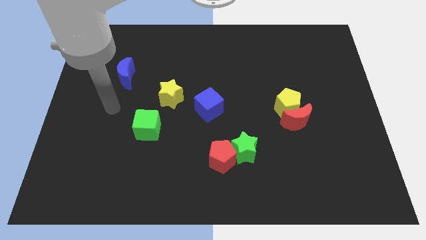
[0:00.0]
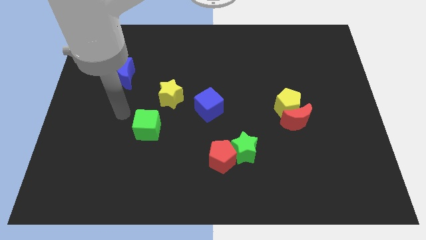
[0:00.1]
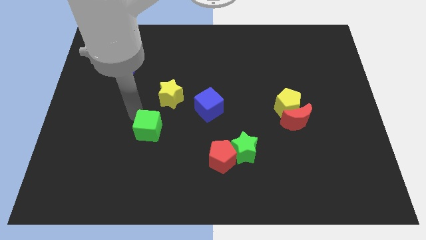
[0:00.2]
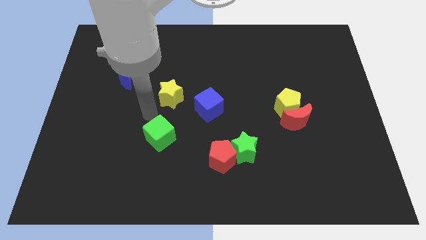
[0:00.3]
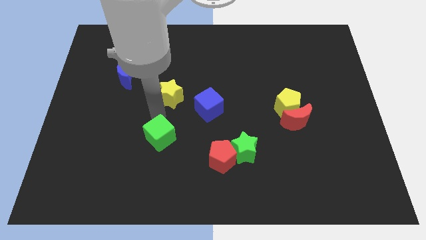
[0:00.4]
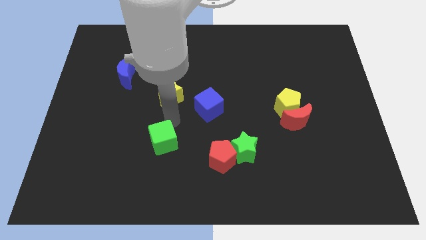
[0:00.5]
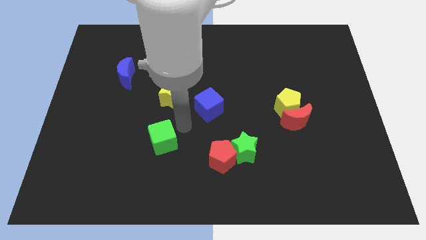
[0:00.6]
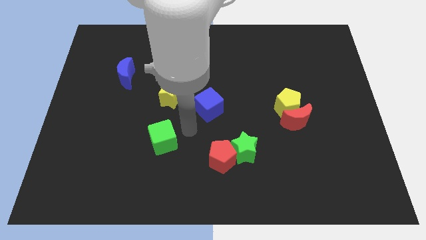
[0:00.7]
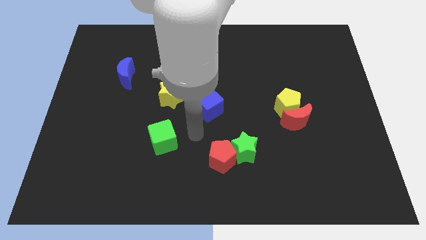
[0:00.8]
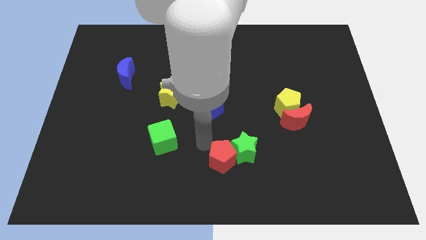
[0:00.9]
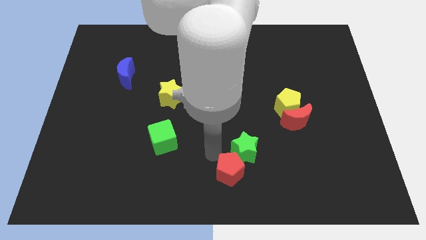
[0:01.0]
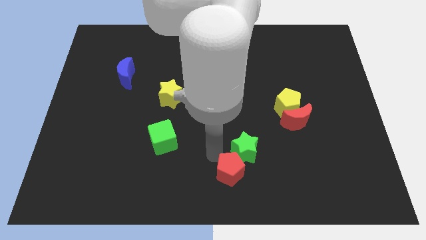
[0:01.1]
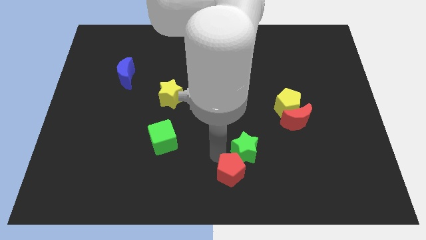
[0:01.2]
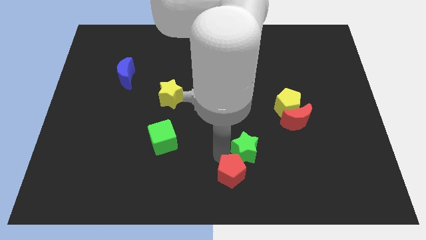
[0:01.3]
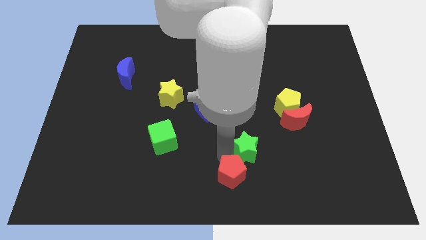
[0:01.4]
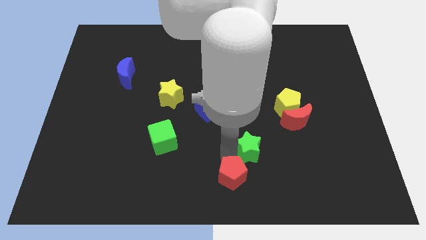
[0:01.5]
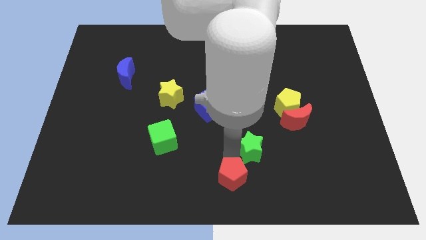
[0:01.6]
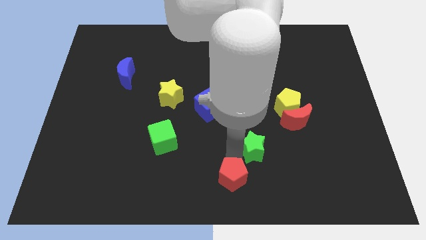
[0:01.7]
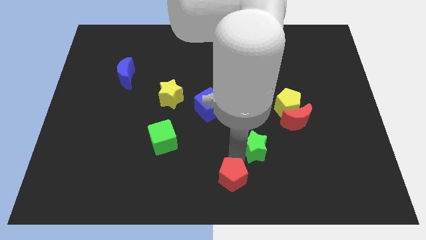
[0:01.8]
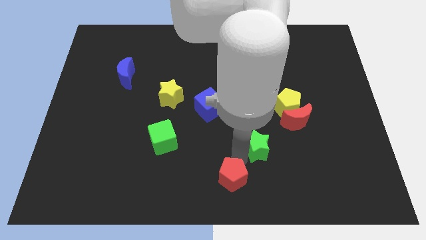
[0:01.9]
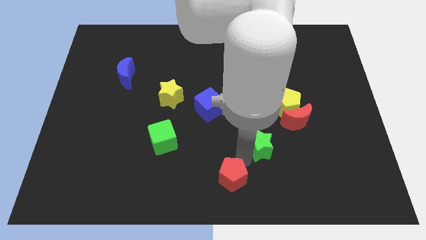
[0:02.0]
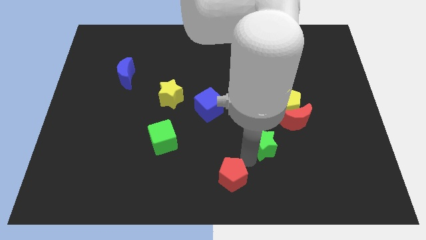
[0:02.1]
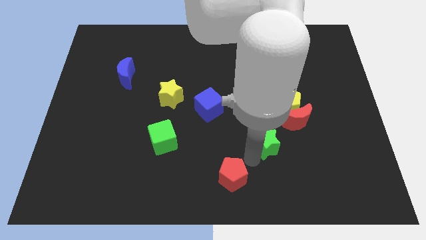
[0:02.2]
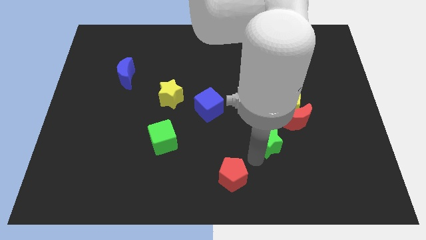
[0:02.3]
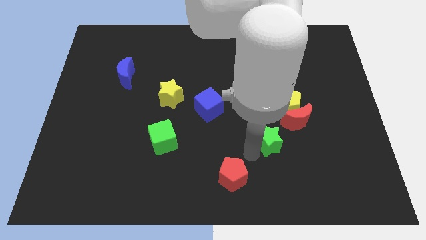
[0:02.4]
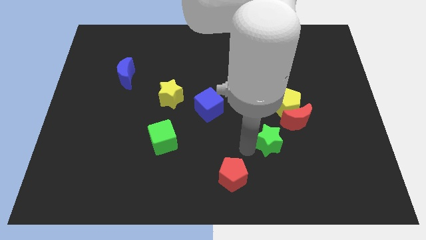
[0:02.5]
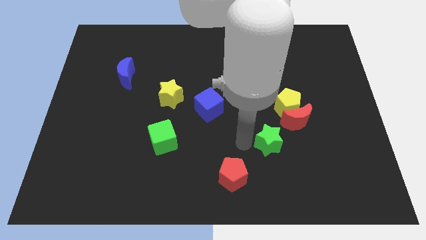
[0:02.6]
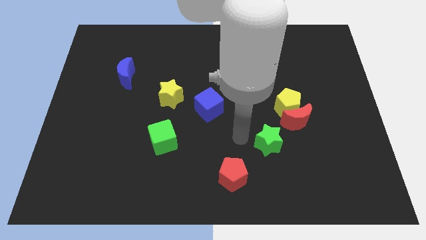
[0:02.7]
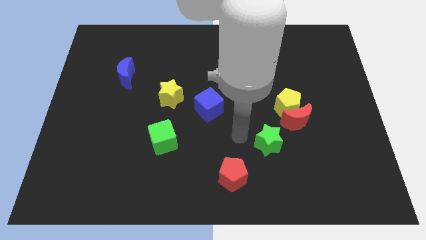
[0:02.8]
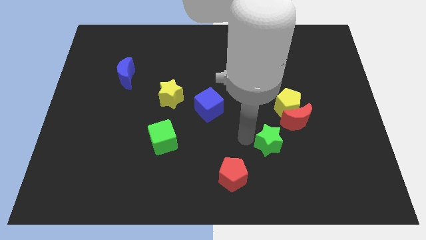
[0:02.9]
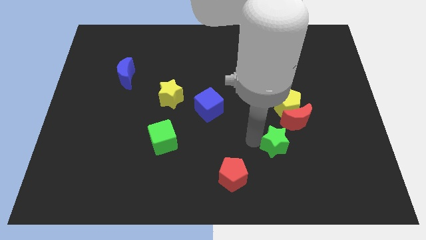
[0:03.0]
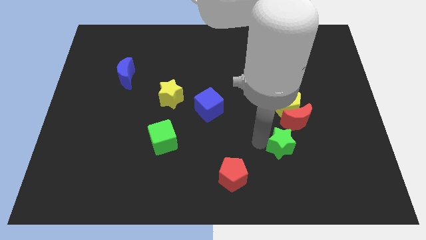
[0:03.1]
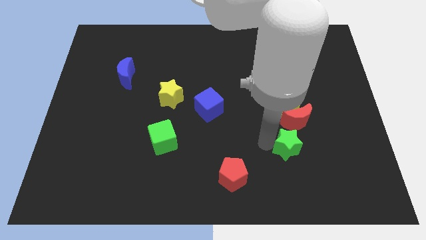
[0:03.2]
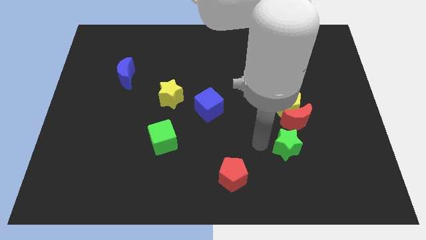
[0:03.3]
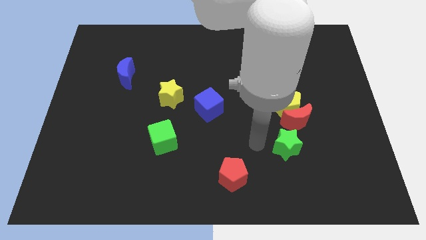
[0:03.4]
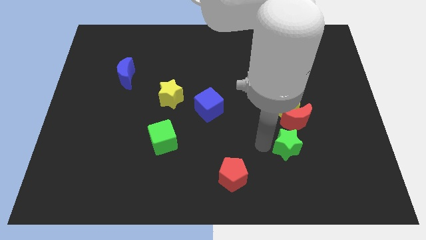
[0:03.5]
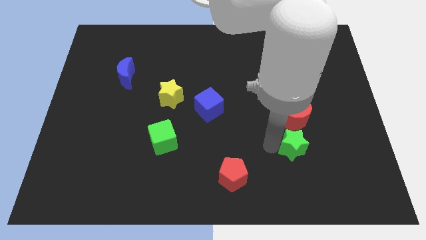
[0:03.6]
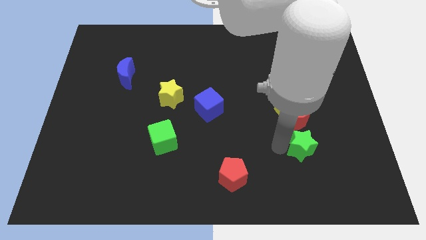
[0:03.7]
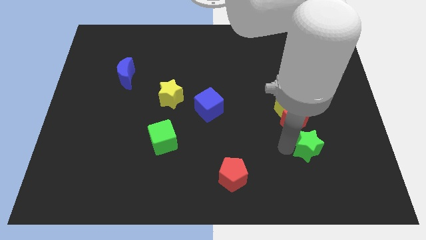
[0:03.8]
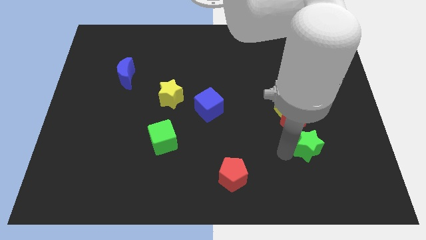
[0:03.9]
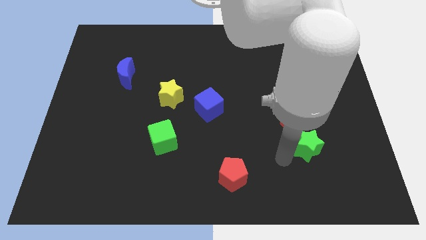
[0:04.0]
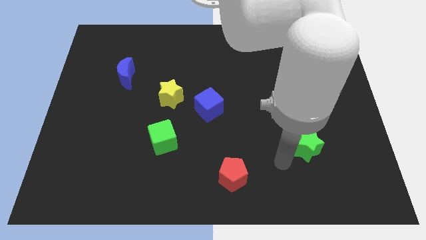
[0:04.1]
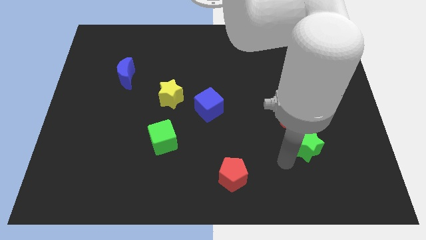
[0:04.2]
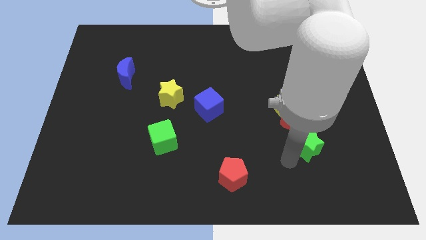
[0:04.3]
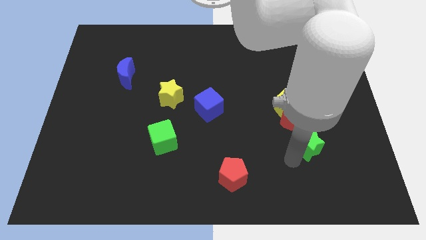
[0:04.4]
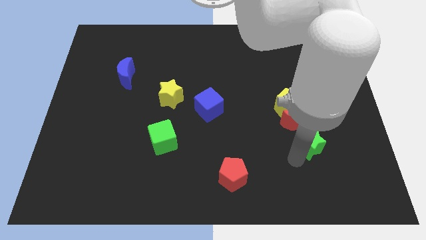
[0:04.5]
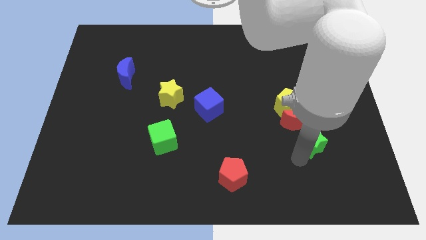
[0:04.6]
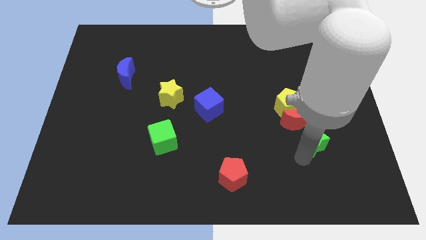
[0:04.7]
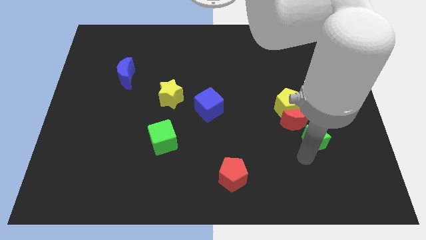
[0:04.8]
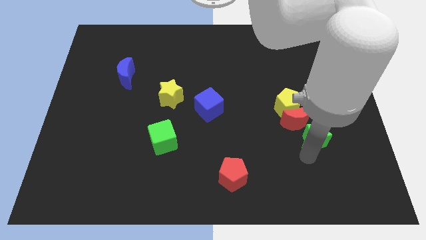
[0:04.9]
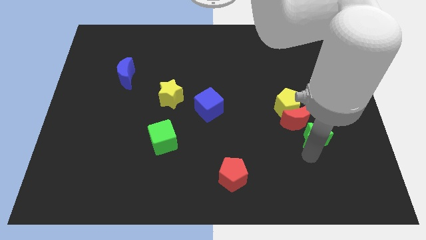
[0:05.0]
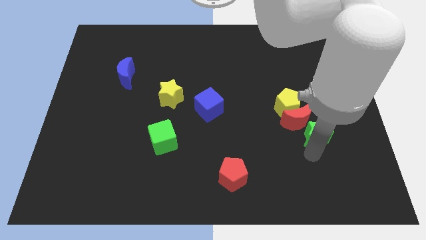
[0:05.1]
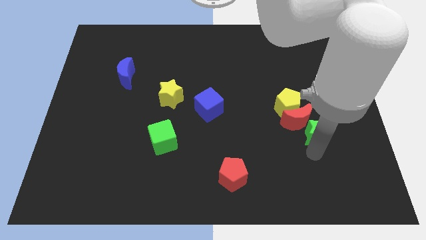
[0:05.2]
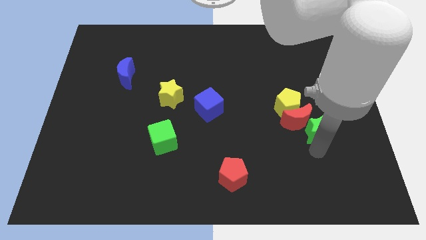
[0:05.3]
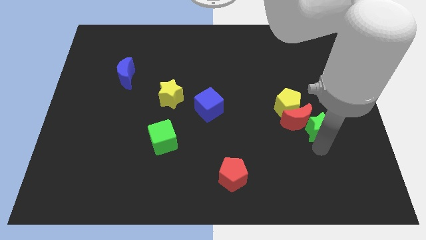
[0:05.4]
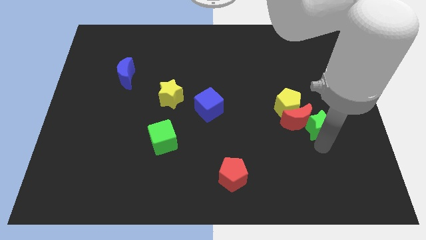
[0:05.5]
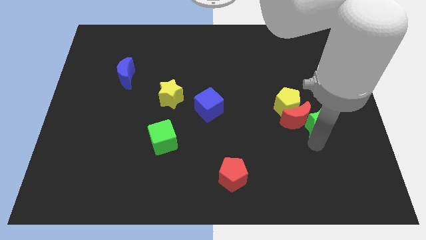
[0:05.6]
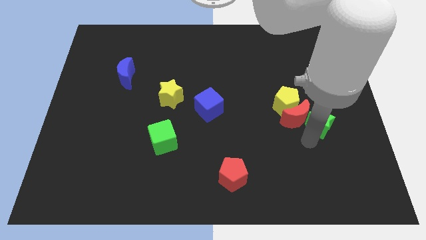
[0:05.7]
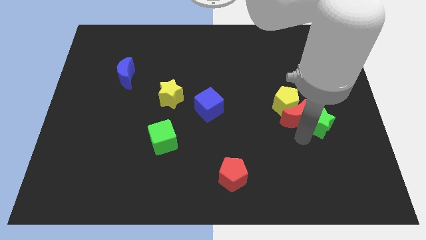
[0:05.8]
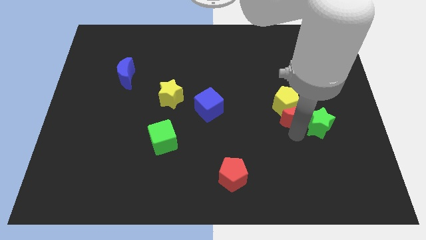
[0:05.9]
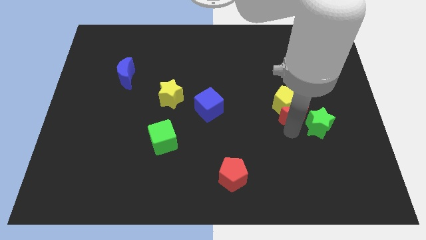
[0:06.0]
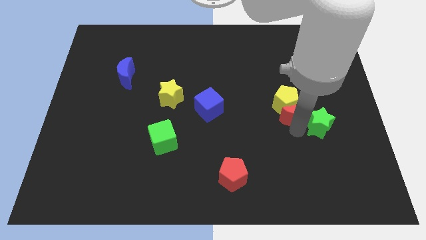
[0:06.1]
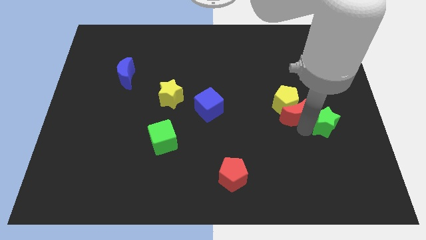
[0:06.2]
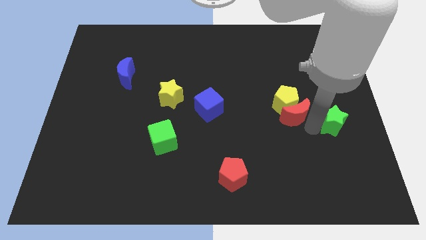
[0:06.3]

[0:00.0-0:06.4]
put the green star to the center right

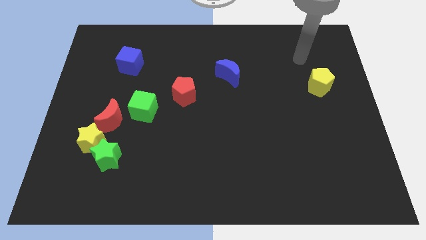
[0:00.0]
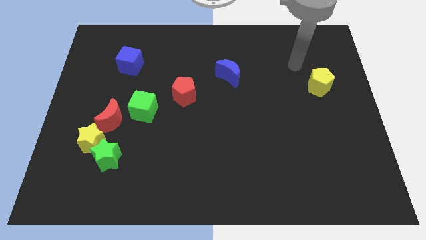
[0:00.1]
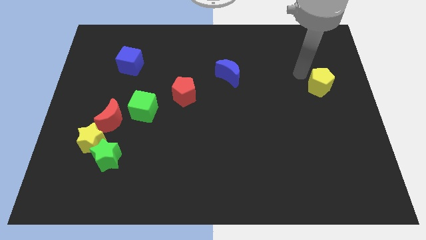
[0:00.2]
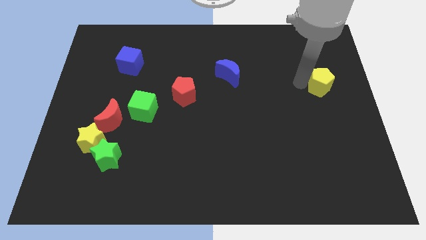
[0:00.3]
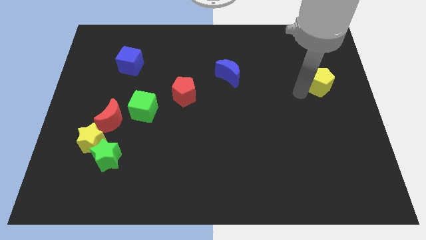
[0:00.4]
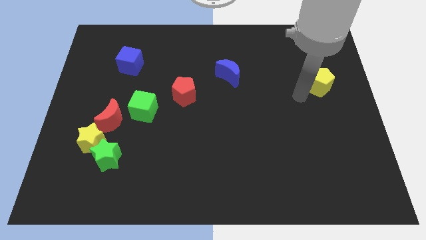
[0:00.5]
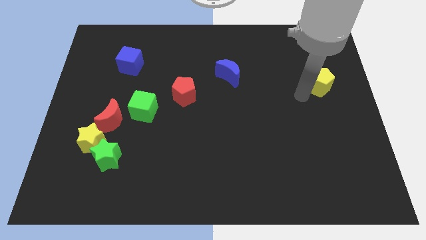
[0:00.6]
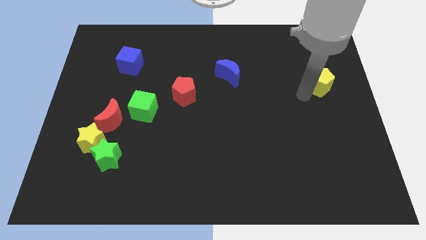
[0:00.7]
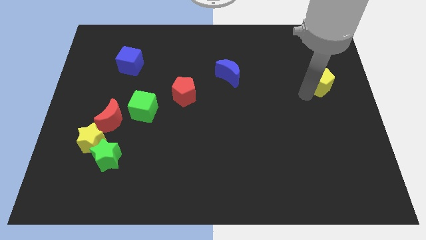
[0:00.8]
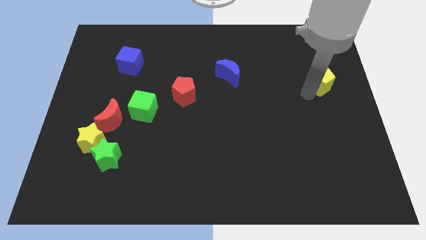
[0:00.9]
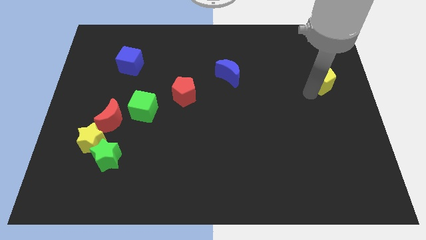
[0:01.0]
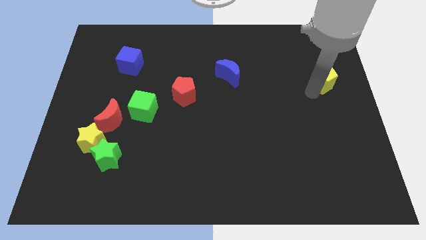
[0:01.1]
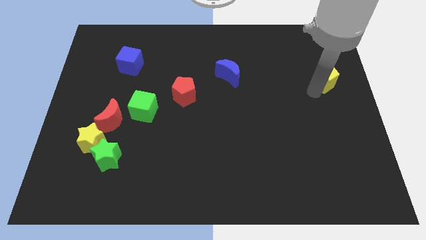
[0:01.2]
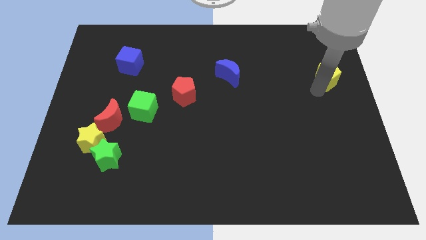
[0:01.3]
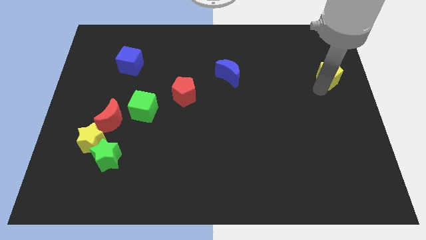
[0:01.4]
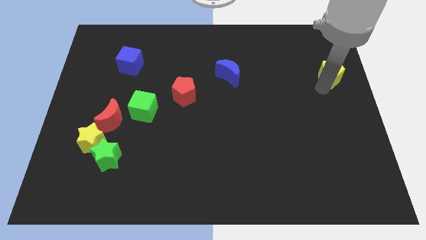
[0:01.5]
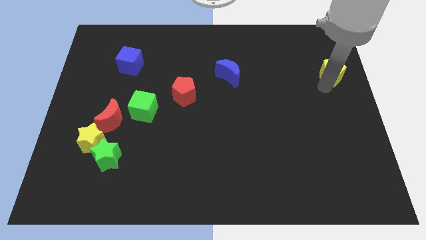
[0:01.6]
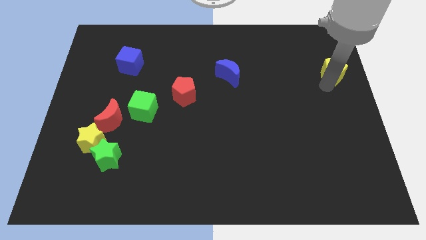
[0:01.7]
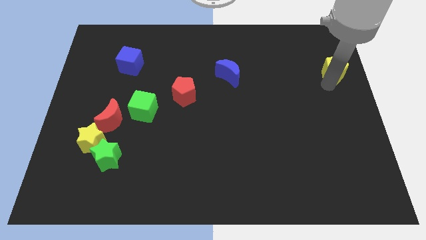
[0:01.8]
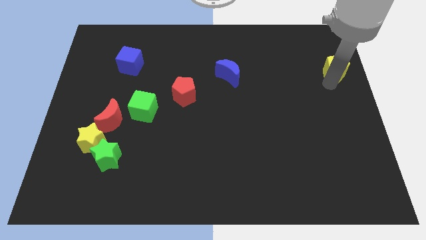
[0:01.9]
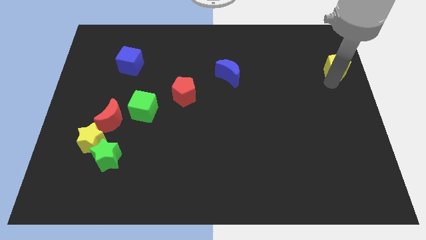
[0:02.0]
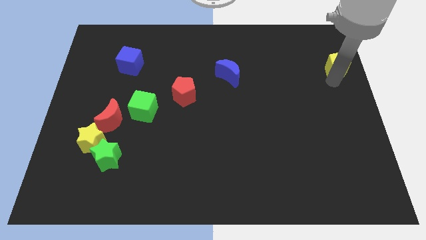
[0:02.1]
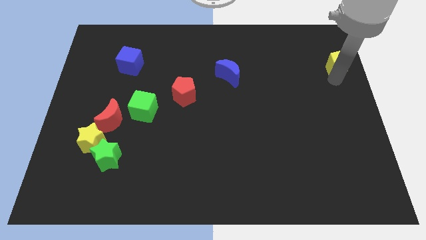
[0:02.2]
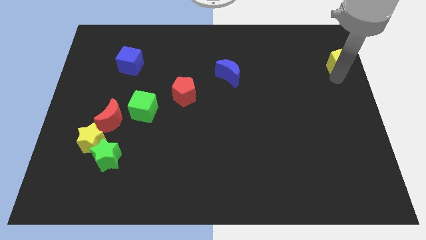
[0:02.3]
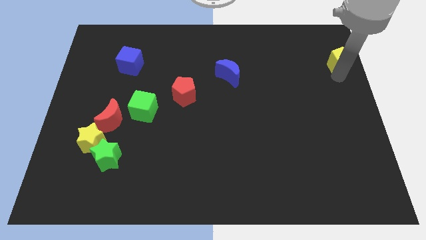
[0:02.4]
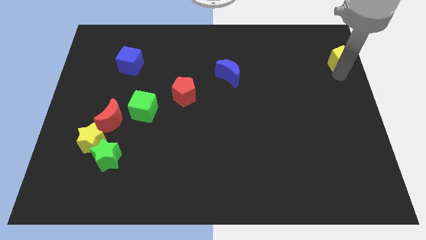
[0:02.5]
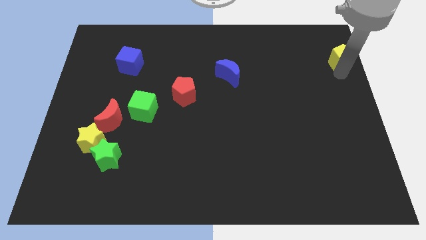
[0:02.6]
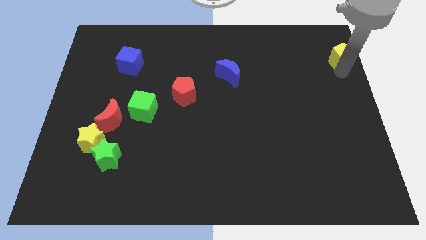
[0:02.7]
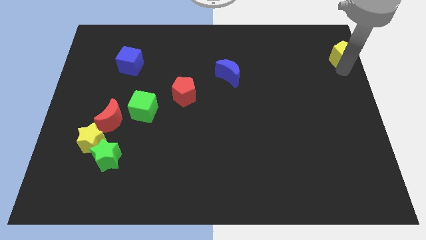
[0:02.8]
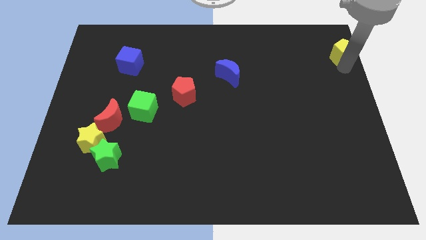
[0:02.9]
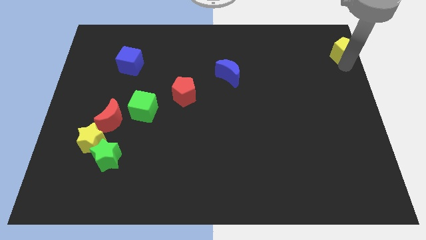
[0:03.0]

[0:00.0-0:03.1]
move the yellow pentagon to the top right of the board
